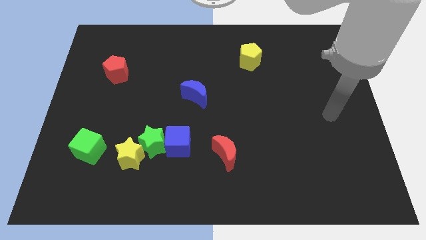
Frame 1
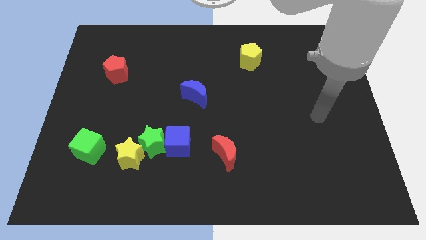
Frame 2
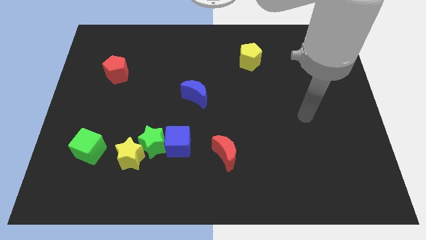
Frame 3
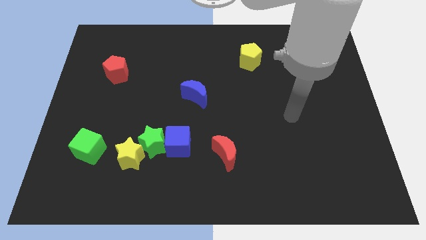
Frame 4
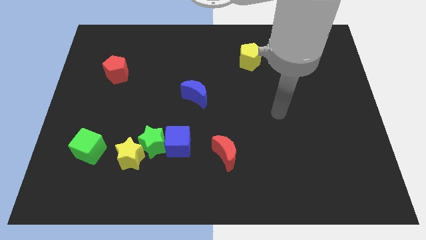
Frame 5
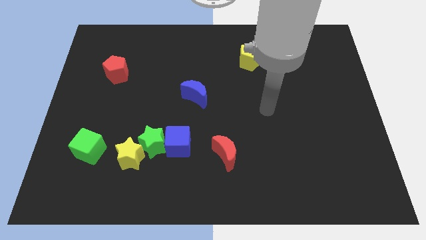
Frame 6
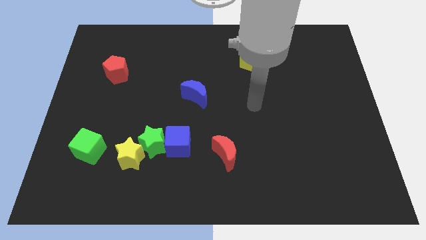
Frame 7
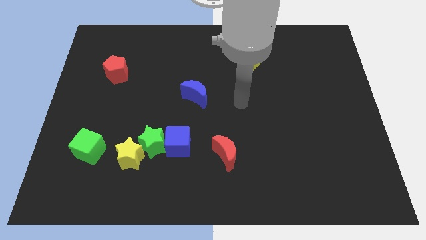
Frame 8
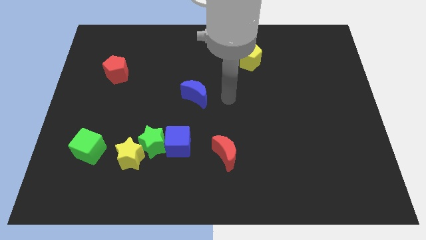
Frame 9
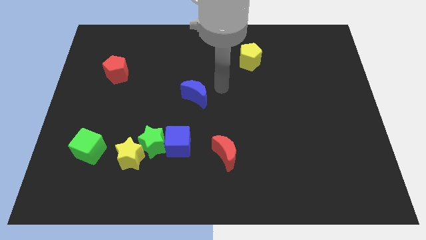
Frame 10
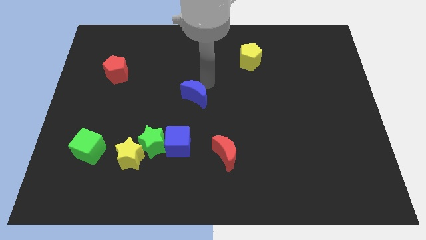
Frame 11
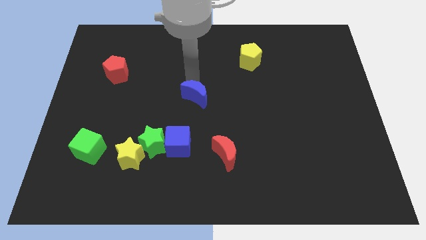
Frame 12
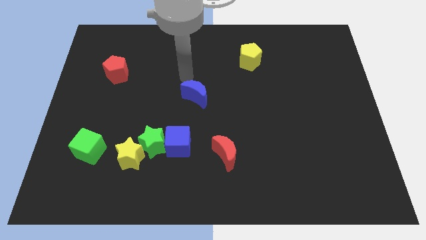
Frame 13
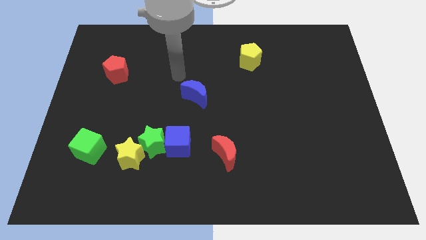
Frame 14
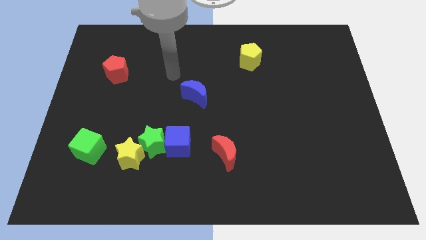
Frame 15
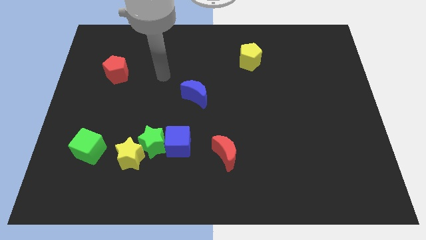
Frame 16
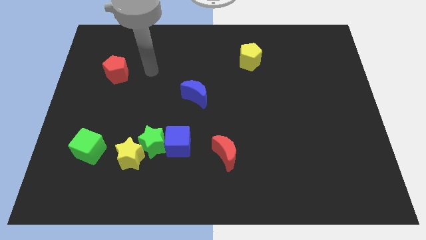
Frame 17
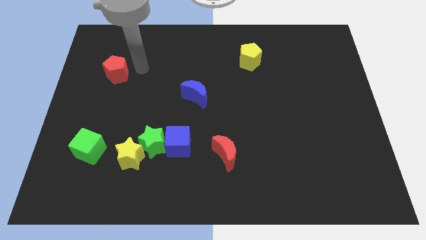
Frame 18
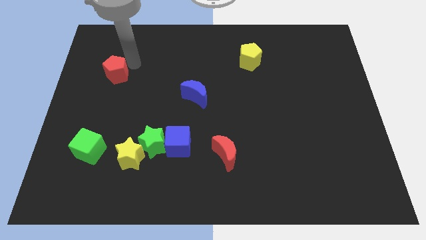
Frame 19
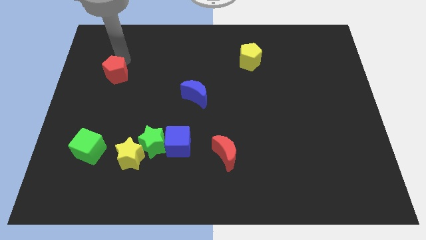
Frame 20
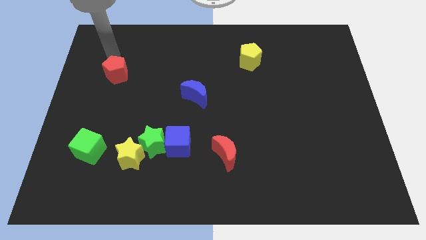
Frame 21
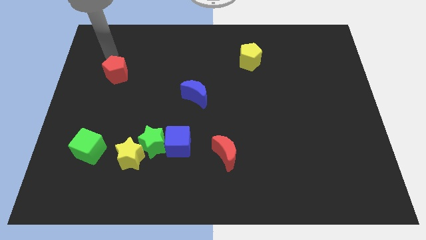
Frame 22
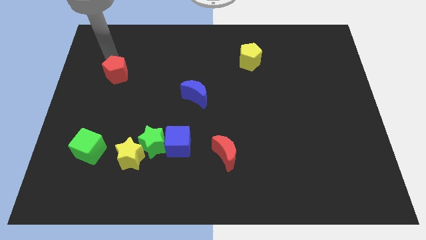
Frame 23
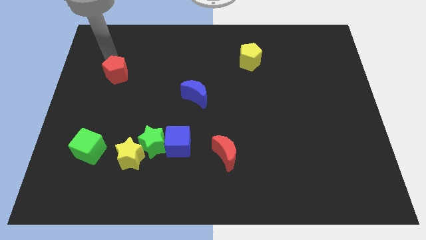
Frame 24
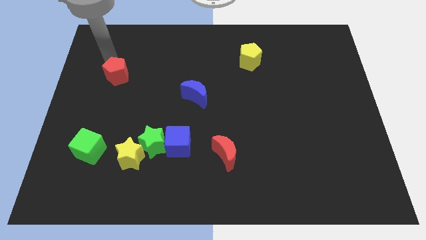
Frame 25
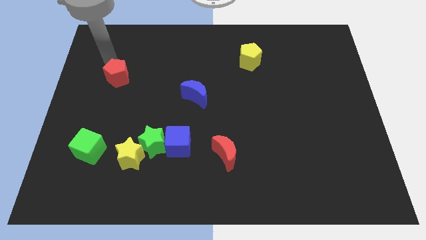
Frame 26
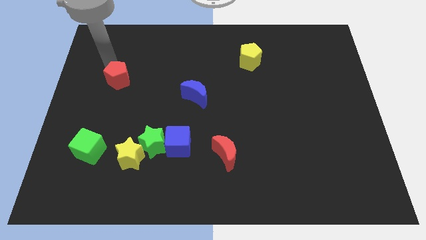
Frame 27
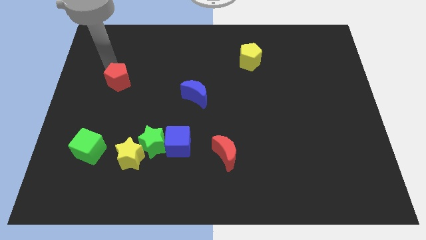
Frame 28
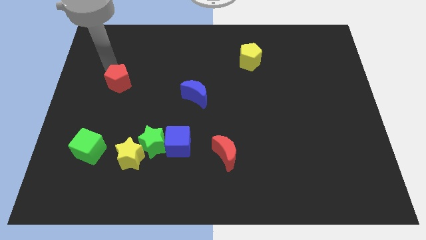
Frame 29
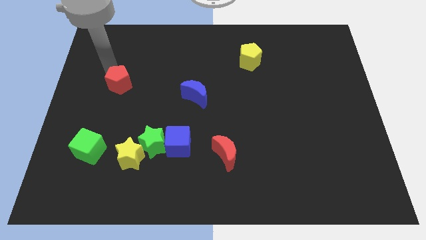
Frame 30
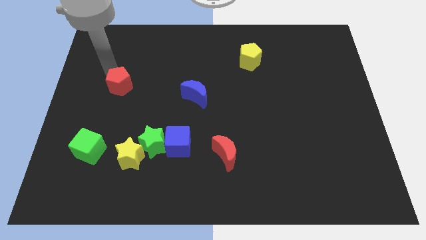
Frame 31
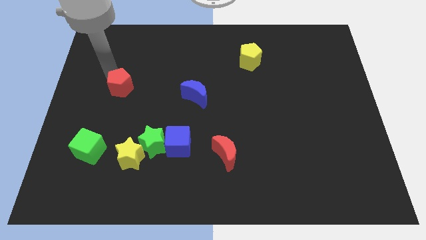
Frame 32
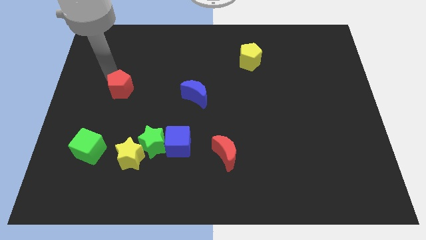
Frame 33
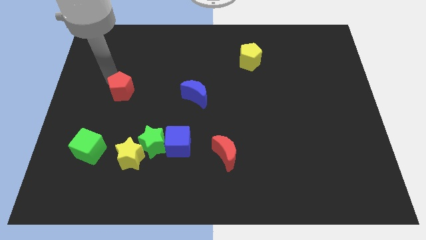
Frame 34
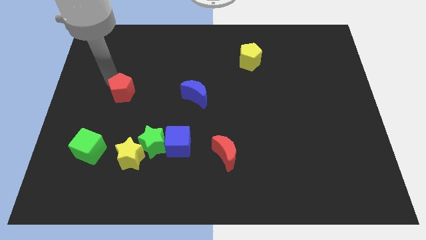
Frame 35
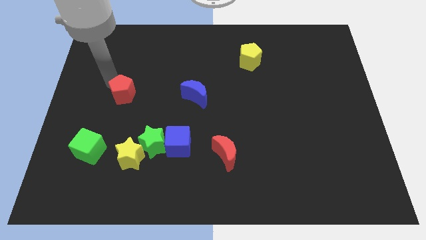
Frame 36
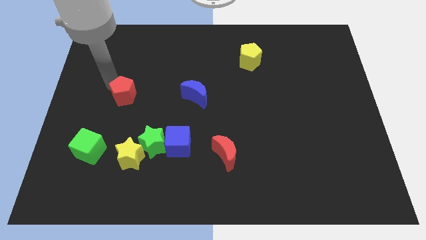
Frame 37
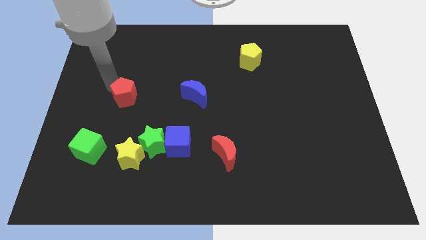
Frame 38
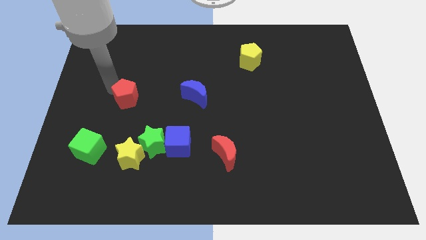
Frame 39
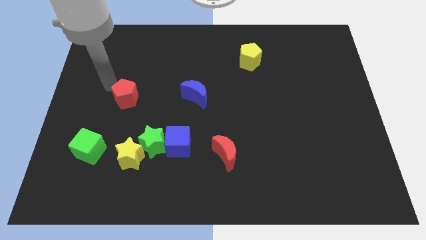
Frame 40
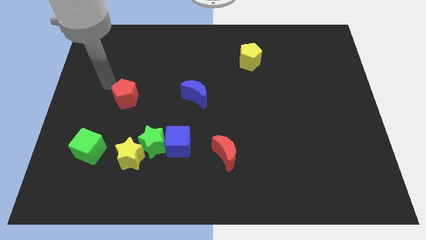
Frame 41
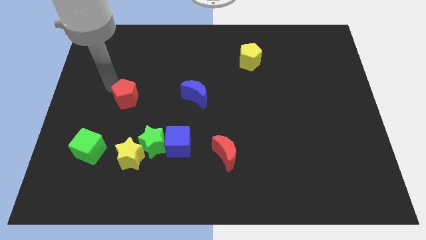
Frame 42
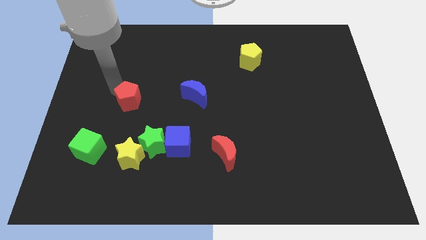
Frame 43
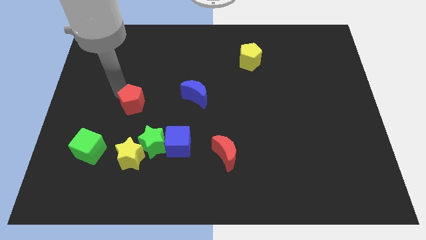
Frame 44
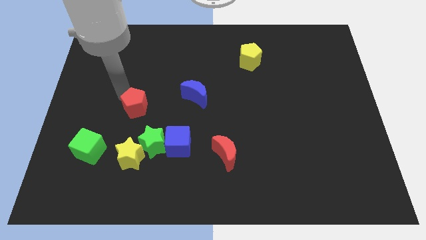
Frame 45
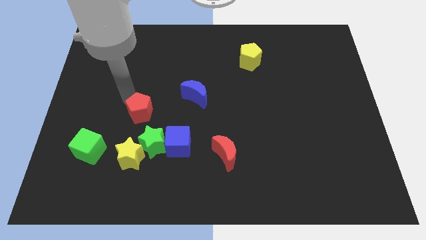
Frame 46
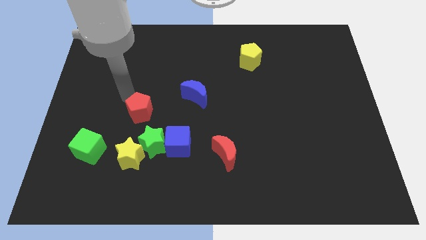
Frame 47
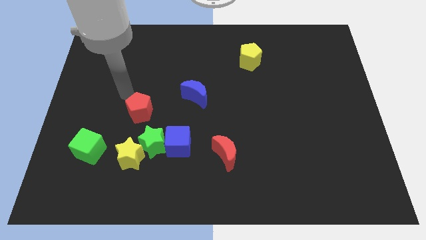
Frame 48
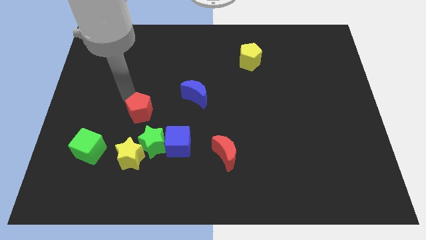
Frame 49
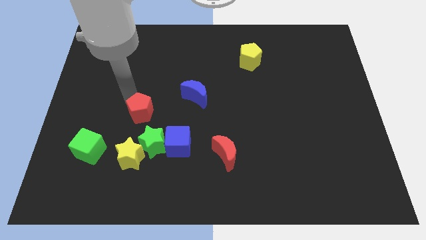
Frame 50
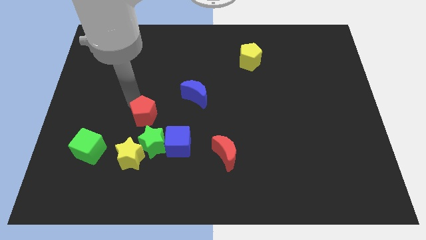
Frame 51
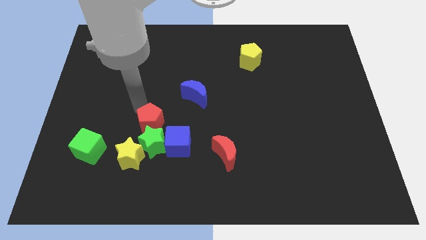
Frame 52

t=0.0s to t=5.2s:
push the red pentagon next to the green star

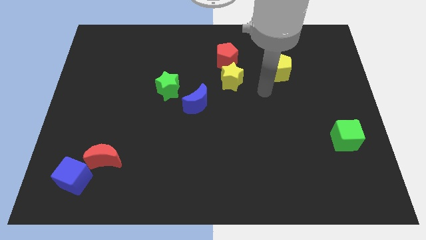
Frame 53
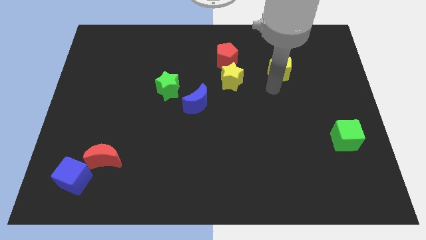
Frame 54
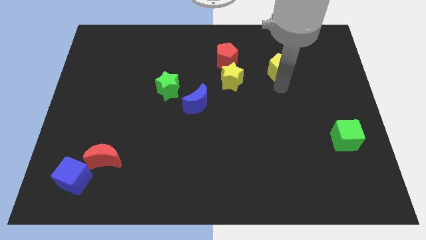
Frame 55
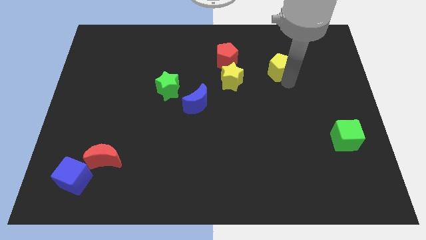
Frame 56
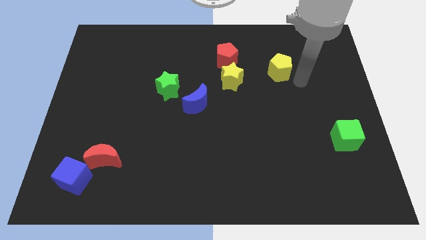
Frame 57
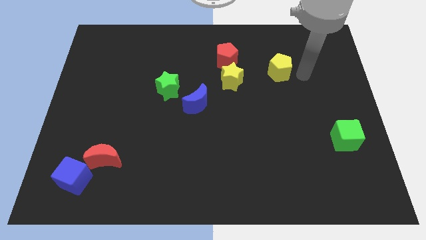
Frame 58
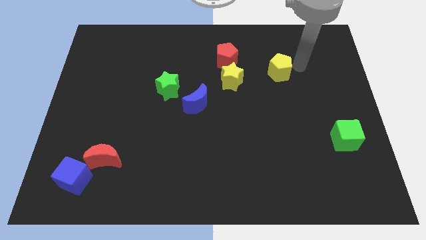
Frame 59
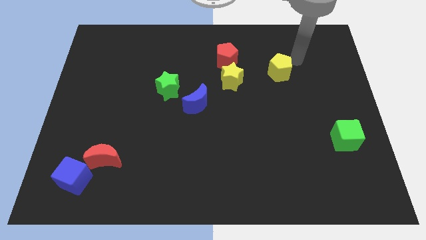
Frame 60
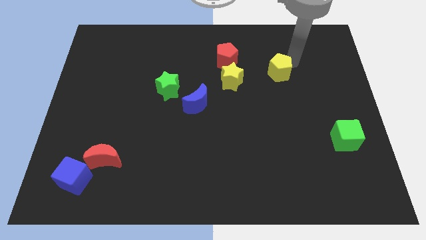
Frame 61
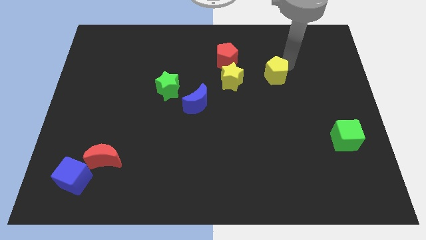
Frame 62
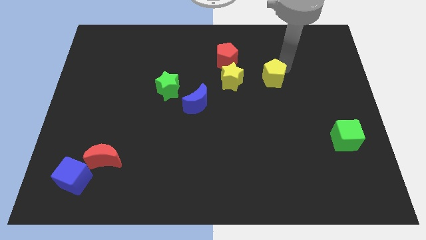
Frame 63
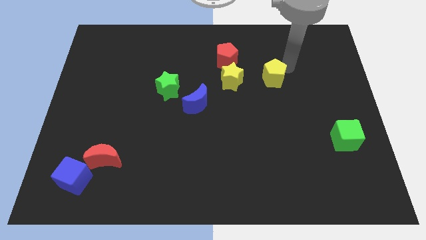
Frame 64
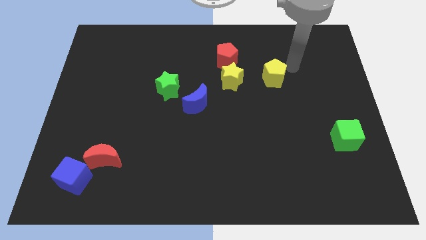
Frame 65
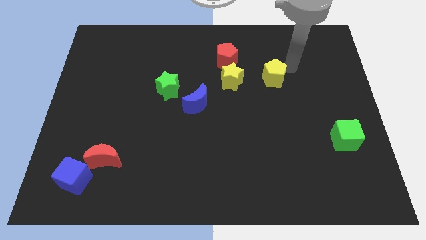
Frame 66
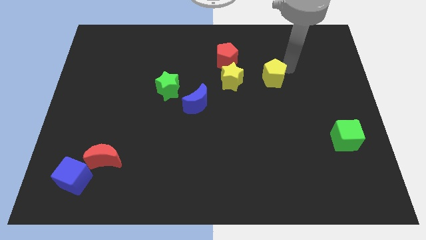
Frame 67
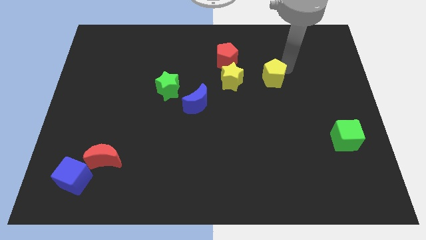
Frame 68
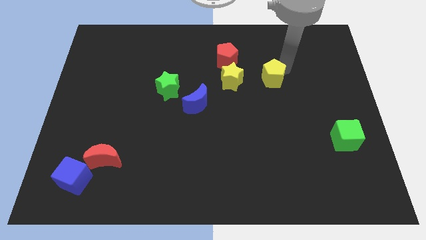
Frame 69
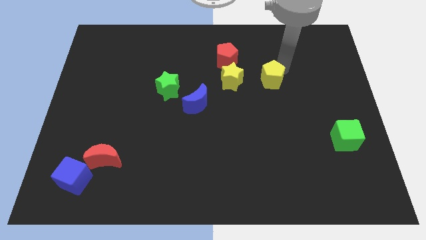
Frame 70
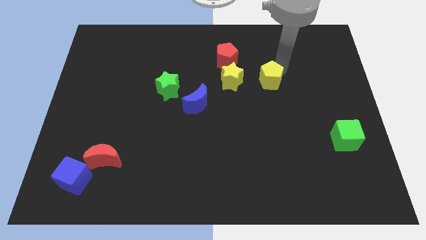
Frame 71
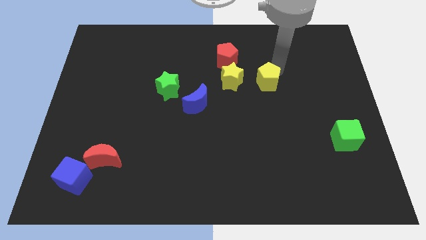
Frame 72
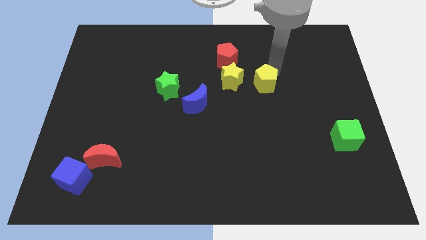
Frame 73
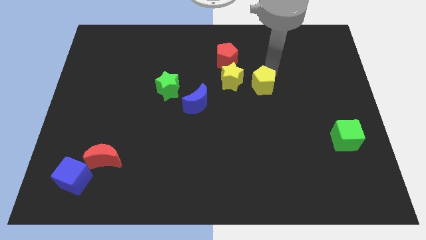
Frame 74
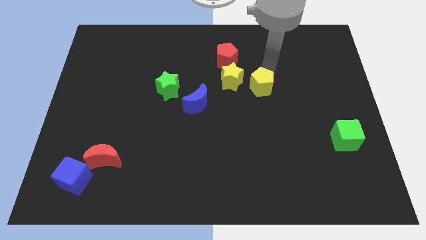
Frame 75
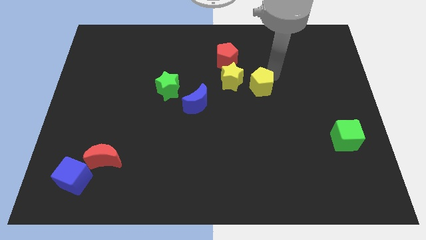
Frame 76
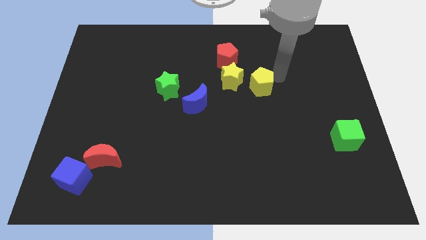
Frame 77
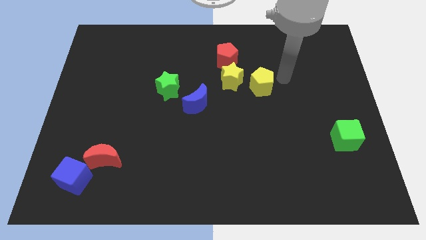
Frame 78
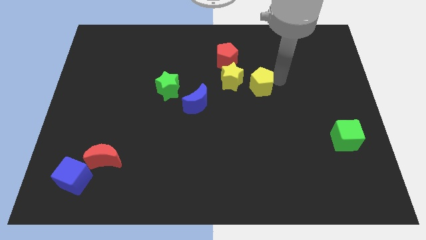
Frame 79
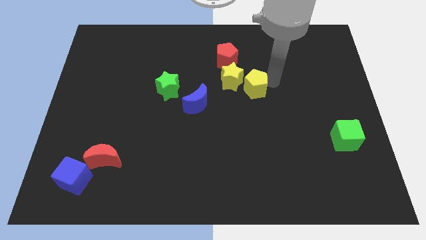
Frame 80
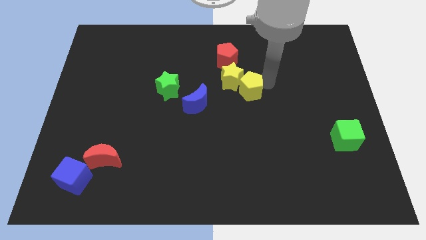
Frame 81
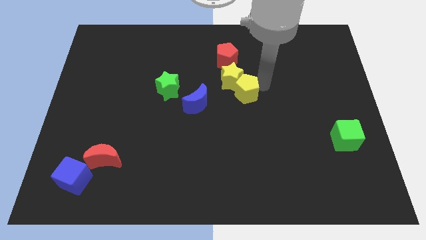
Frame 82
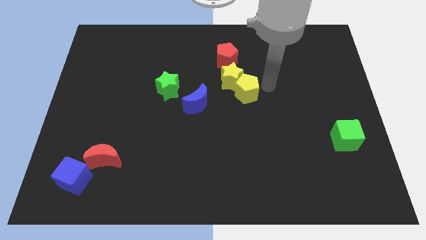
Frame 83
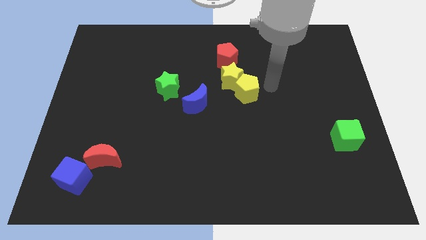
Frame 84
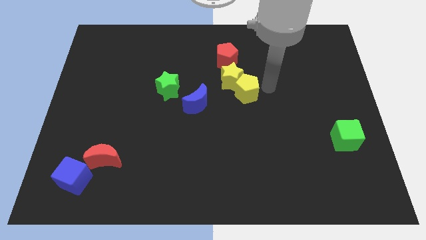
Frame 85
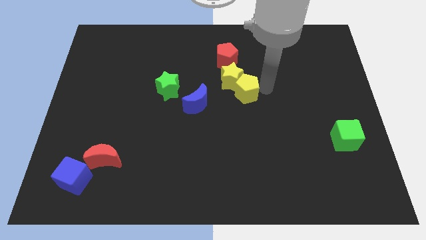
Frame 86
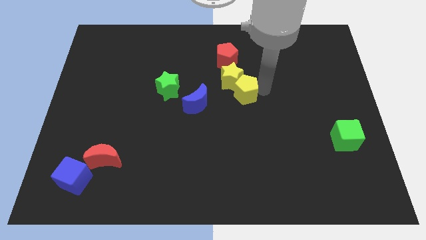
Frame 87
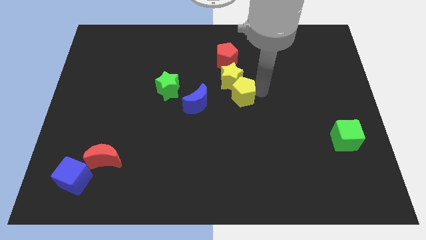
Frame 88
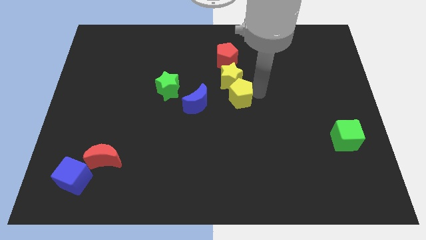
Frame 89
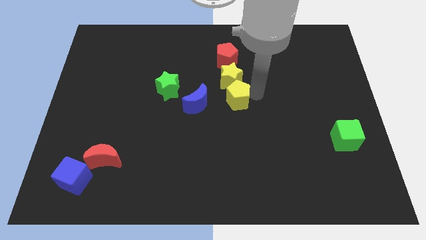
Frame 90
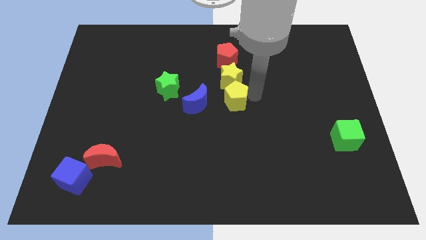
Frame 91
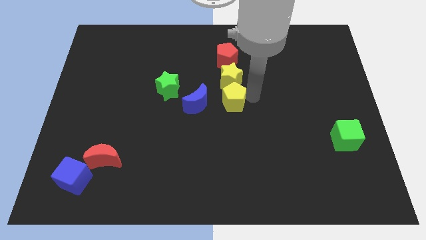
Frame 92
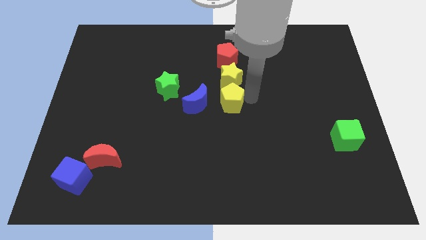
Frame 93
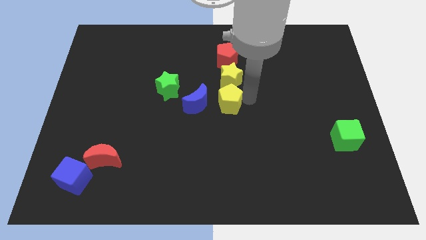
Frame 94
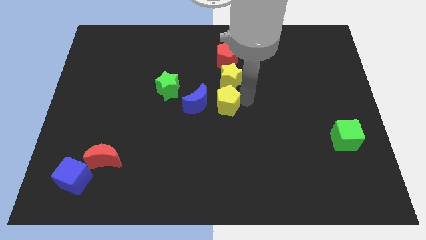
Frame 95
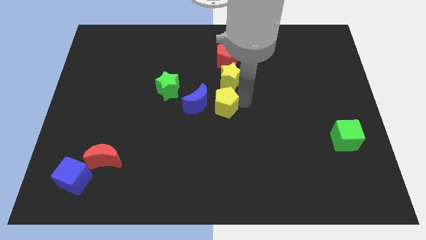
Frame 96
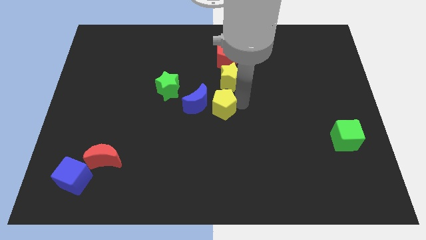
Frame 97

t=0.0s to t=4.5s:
move the yellow pentagon towards the blue moon
